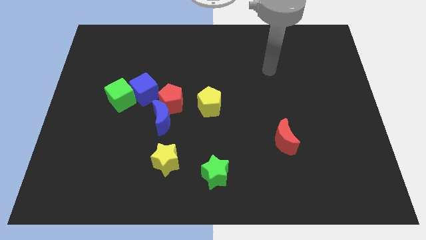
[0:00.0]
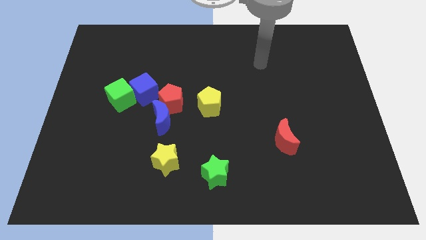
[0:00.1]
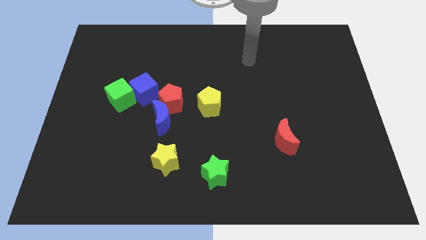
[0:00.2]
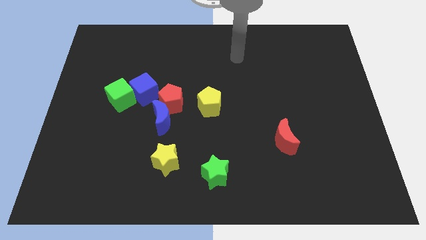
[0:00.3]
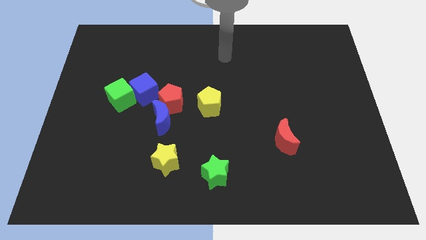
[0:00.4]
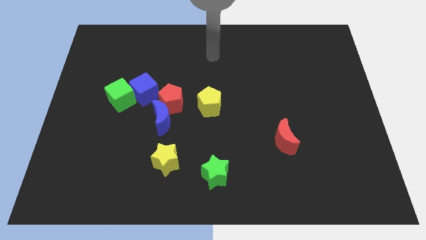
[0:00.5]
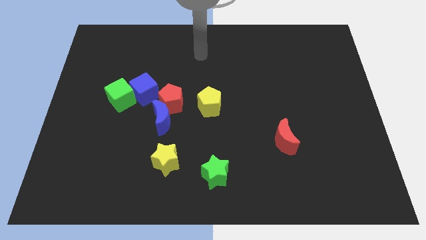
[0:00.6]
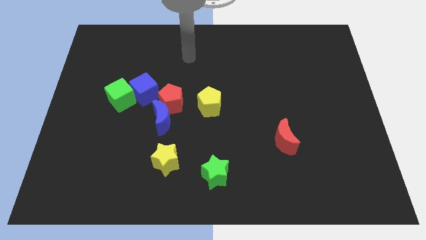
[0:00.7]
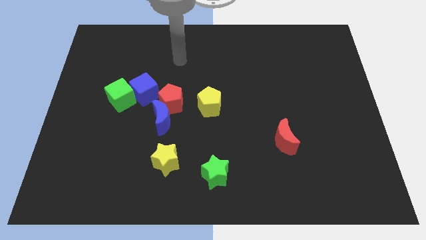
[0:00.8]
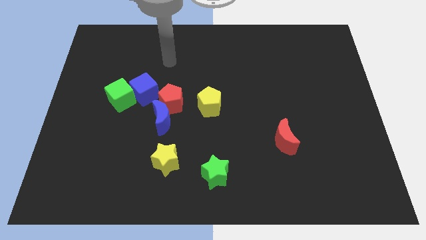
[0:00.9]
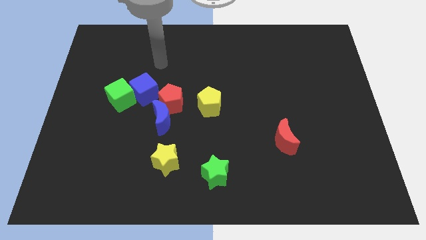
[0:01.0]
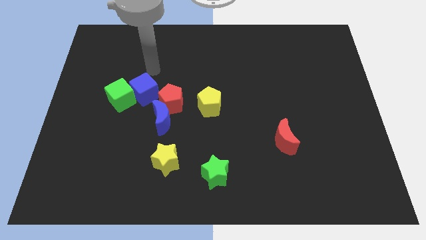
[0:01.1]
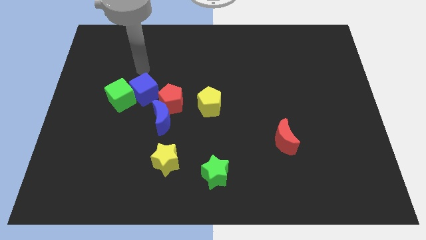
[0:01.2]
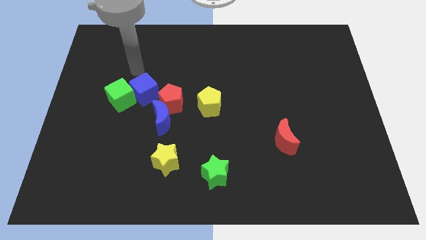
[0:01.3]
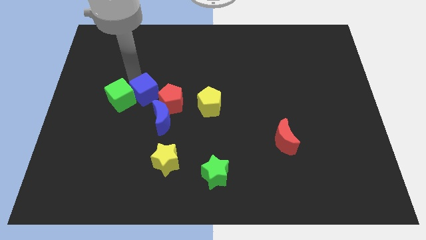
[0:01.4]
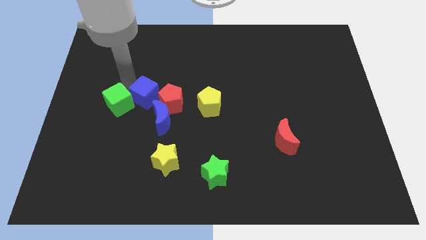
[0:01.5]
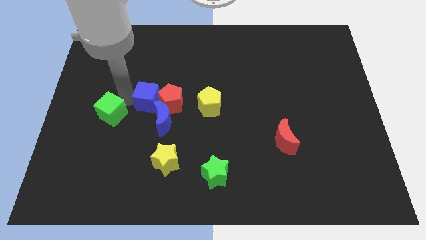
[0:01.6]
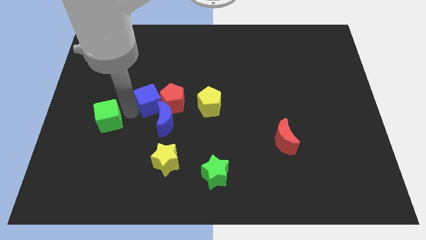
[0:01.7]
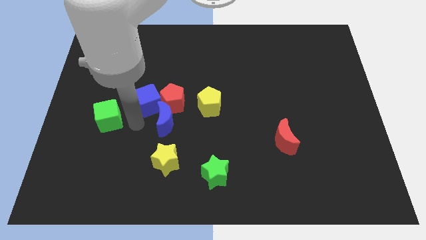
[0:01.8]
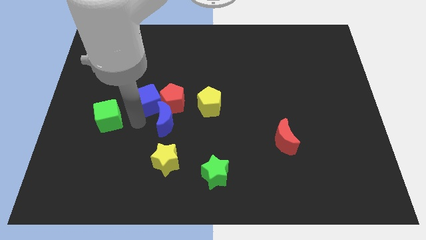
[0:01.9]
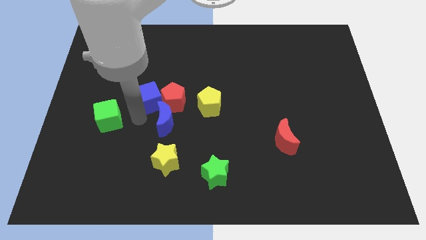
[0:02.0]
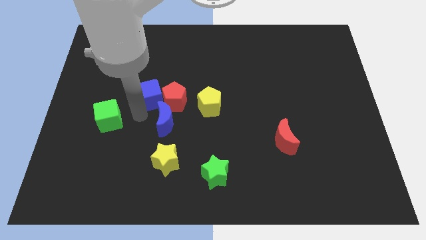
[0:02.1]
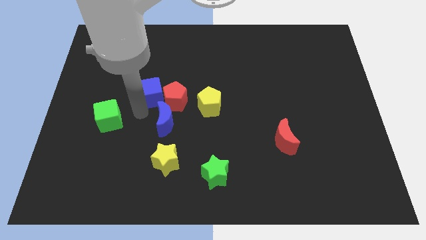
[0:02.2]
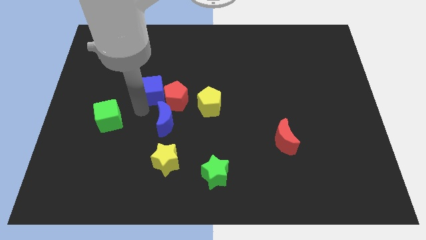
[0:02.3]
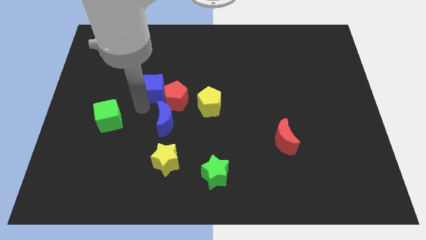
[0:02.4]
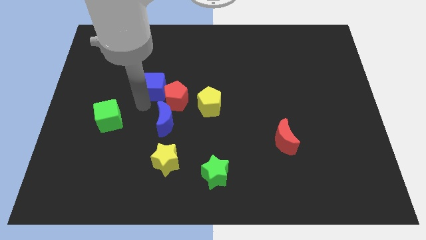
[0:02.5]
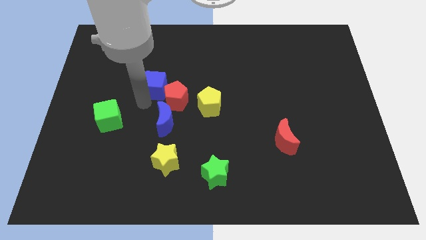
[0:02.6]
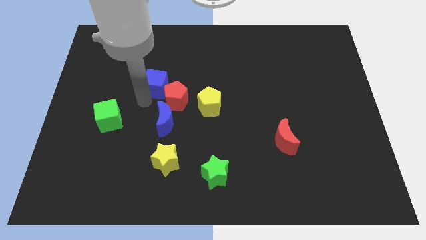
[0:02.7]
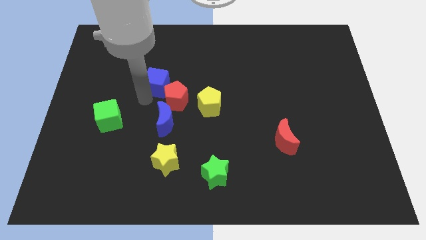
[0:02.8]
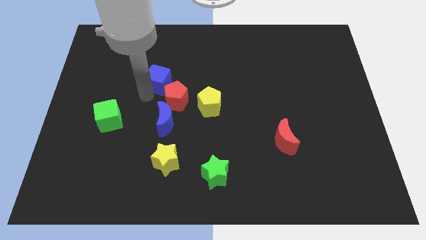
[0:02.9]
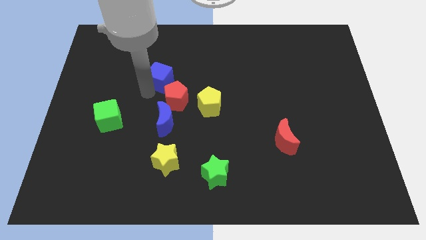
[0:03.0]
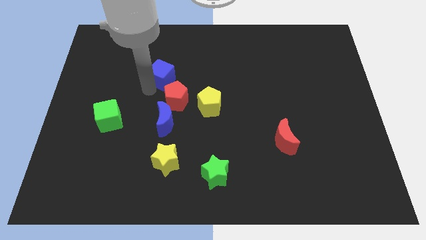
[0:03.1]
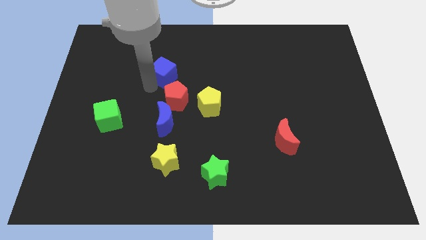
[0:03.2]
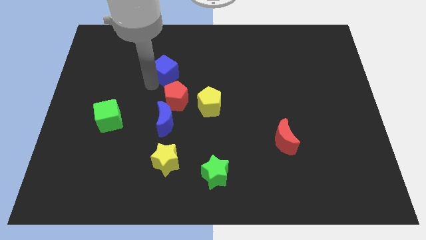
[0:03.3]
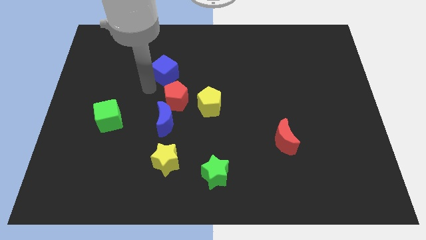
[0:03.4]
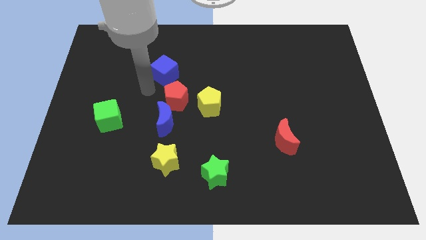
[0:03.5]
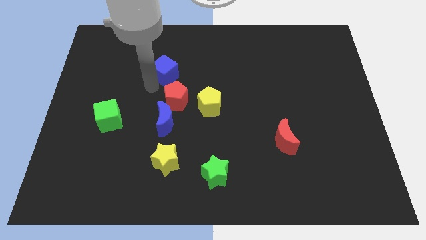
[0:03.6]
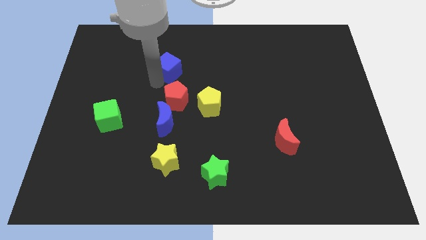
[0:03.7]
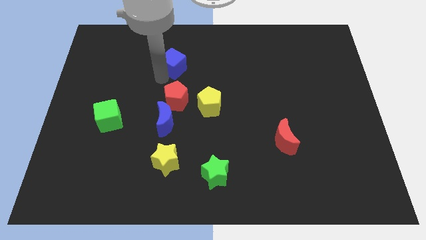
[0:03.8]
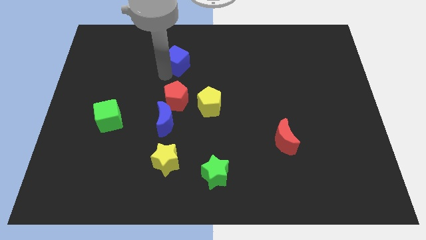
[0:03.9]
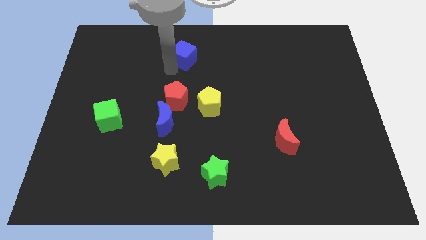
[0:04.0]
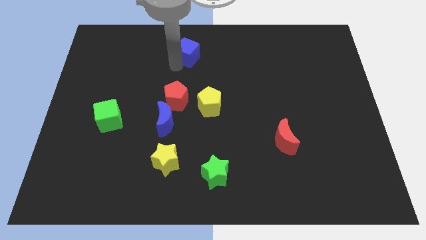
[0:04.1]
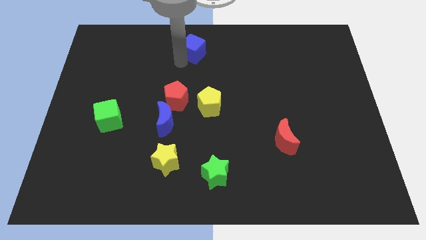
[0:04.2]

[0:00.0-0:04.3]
move the blue cube to the top

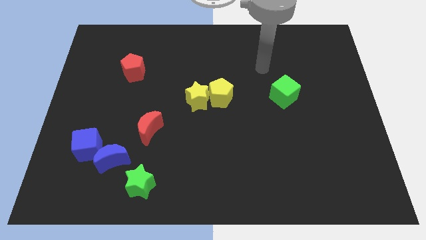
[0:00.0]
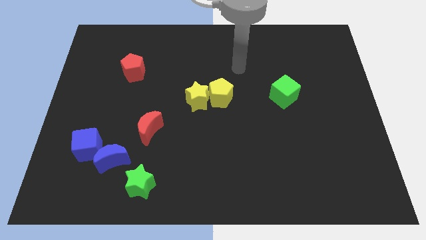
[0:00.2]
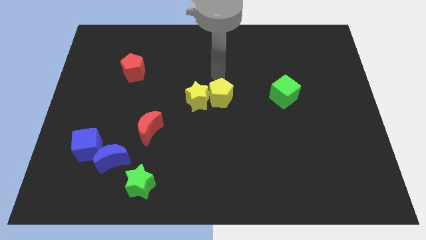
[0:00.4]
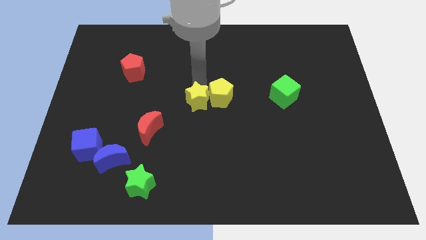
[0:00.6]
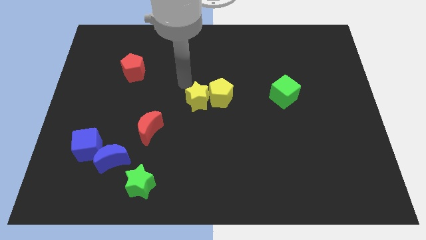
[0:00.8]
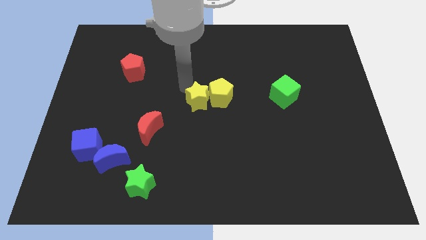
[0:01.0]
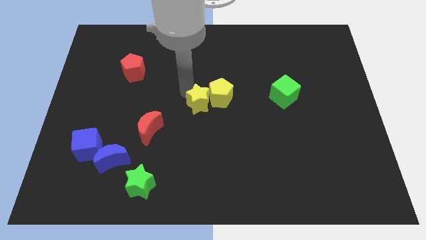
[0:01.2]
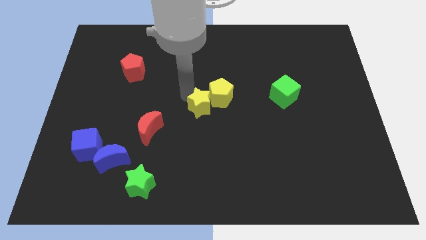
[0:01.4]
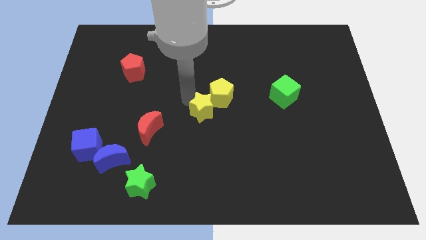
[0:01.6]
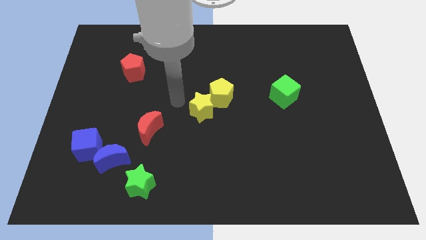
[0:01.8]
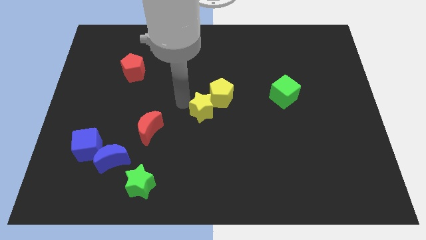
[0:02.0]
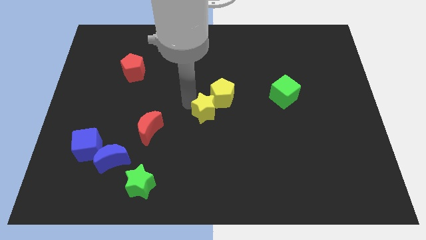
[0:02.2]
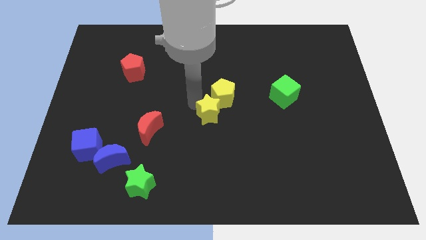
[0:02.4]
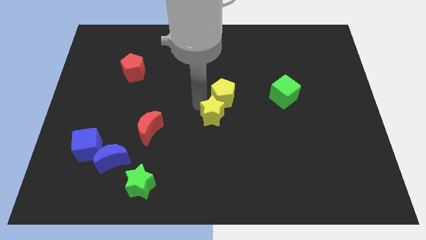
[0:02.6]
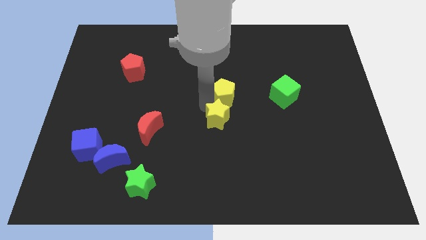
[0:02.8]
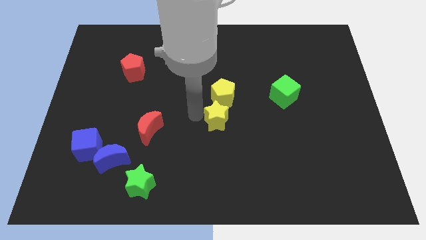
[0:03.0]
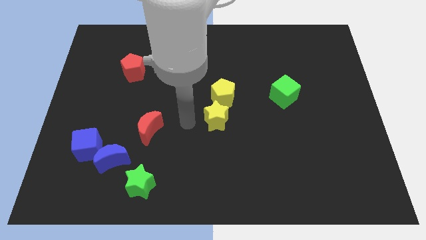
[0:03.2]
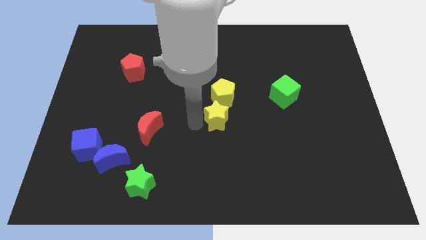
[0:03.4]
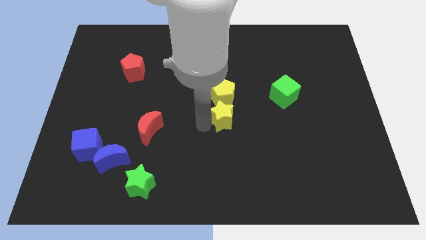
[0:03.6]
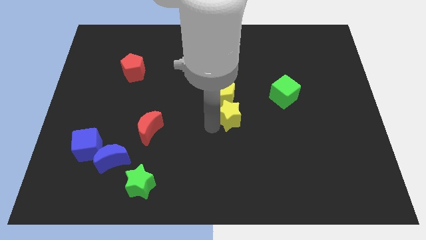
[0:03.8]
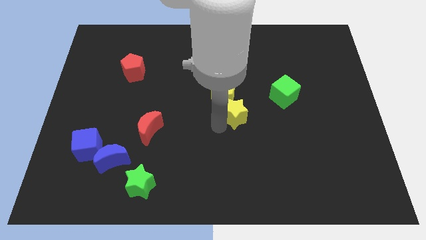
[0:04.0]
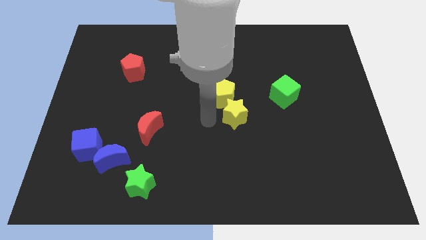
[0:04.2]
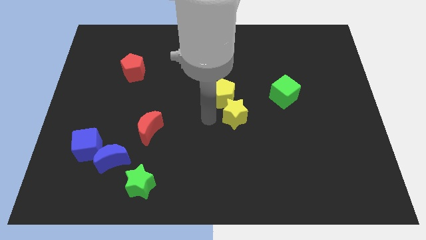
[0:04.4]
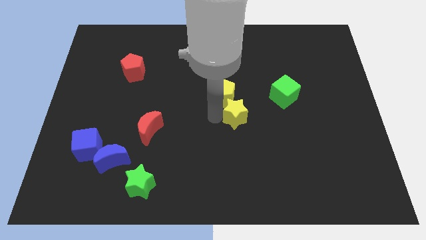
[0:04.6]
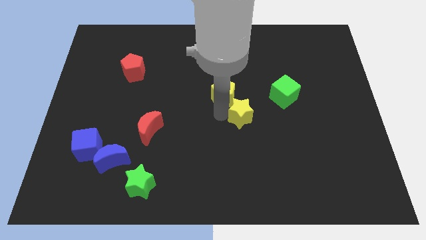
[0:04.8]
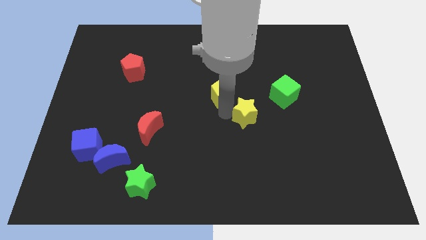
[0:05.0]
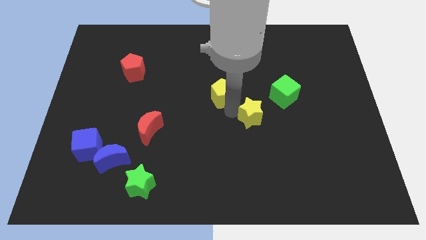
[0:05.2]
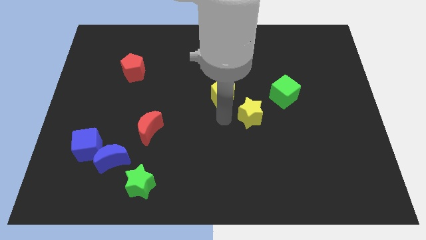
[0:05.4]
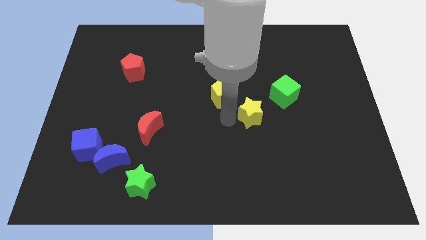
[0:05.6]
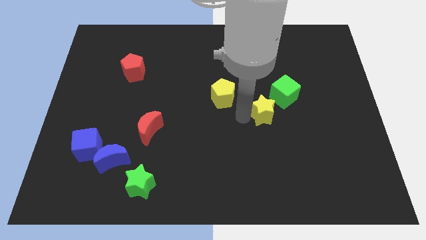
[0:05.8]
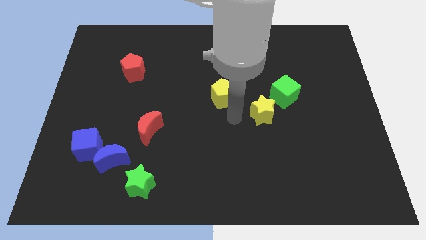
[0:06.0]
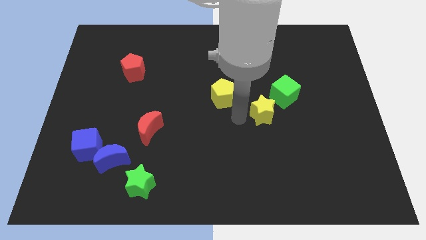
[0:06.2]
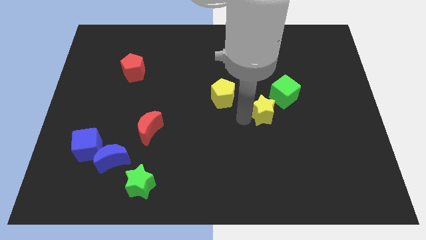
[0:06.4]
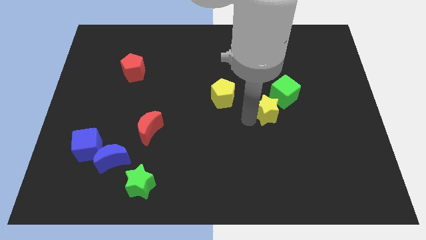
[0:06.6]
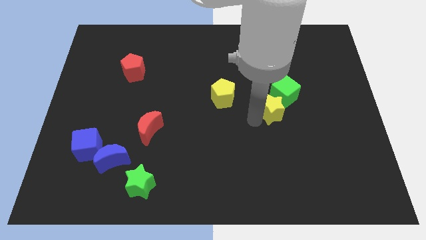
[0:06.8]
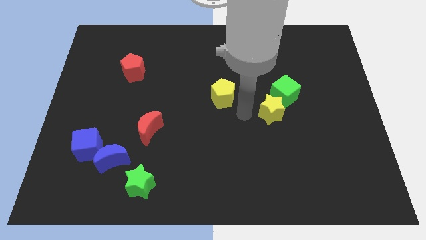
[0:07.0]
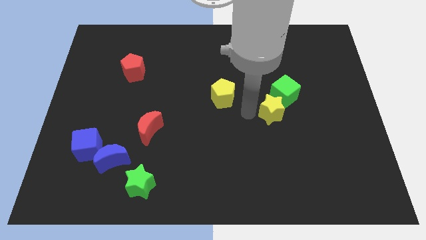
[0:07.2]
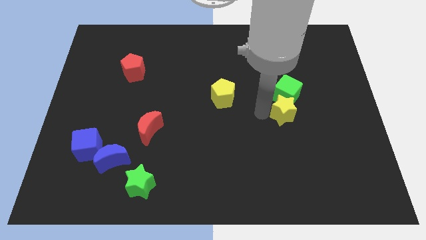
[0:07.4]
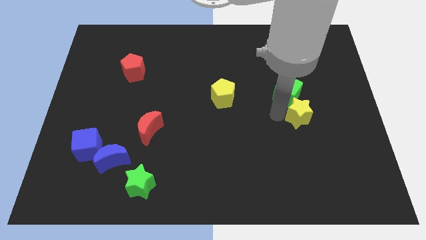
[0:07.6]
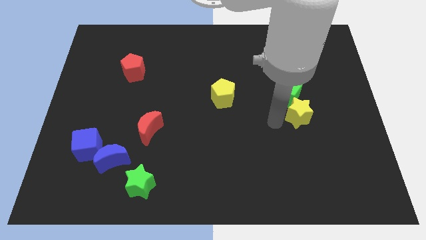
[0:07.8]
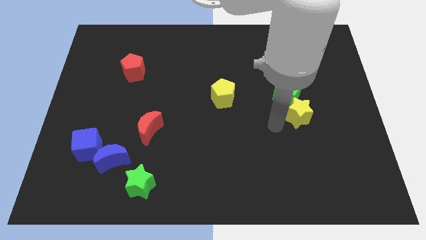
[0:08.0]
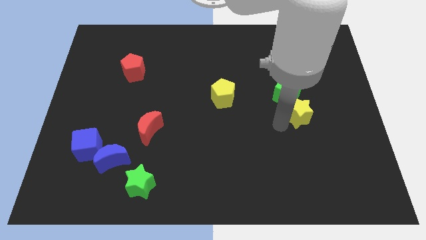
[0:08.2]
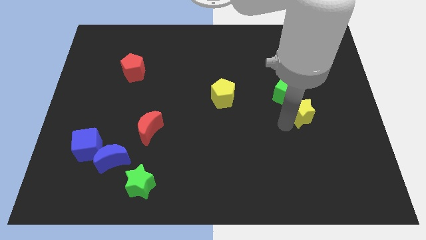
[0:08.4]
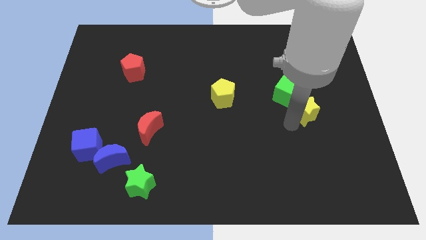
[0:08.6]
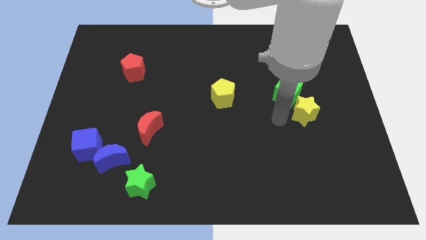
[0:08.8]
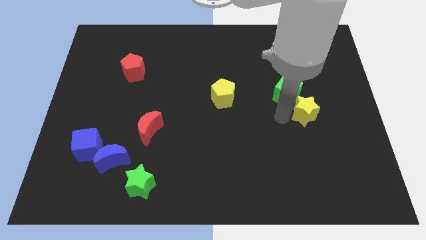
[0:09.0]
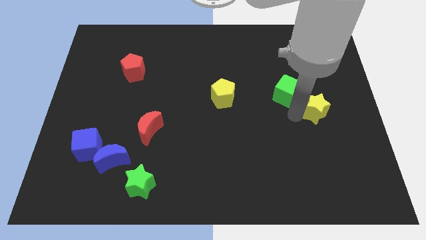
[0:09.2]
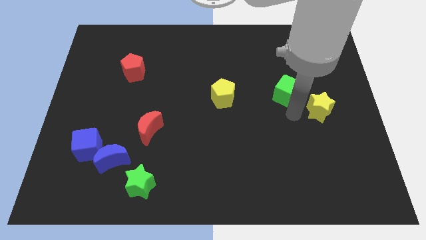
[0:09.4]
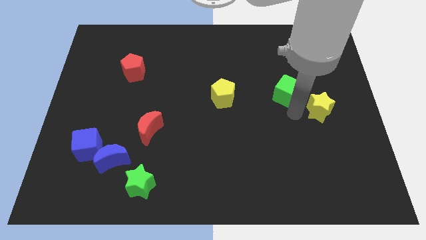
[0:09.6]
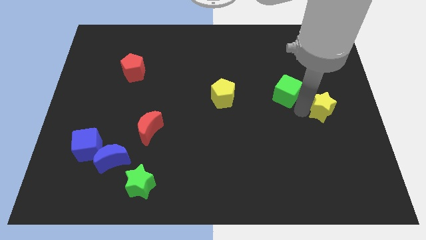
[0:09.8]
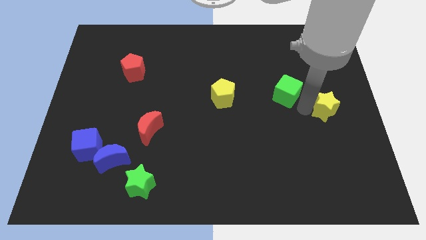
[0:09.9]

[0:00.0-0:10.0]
move the yellow star to the center right
